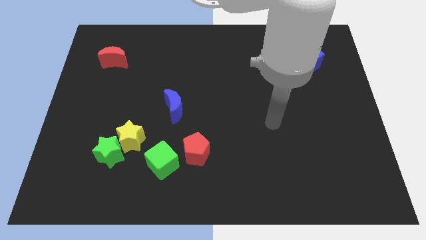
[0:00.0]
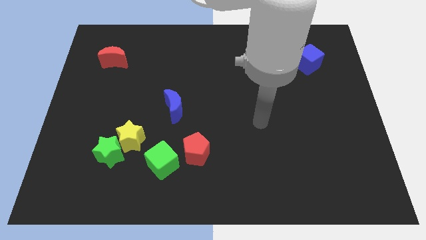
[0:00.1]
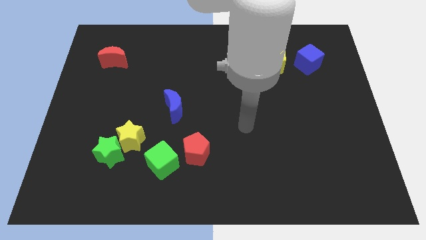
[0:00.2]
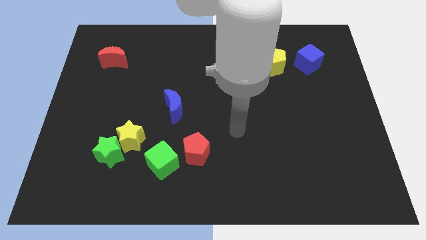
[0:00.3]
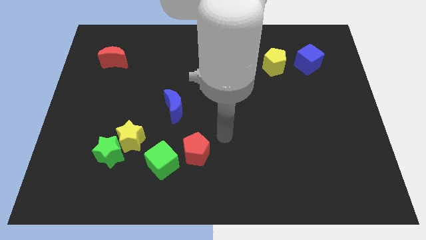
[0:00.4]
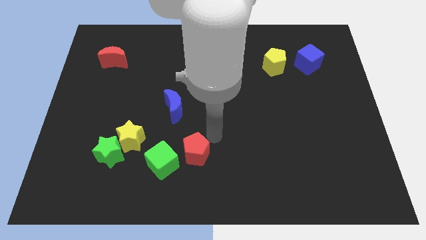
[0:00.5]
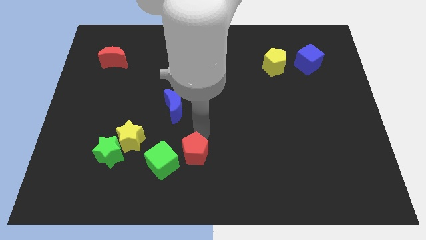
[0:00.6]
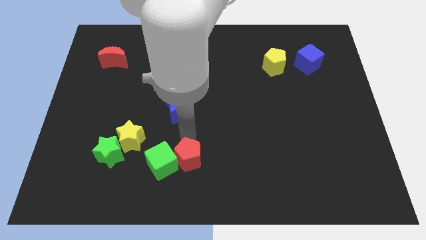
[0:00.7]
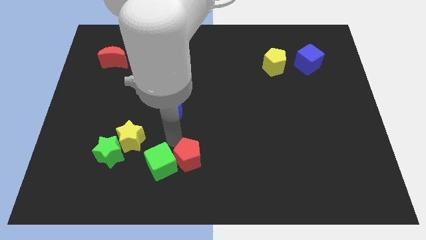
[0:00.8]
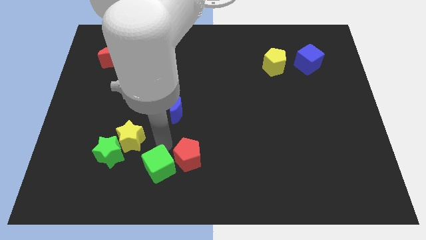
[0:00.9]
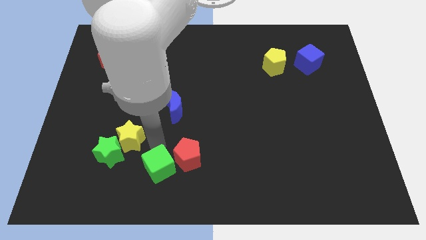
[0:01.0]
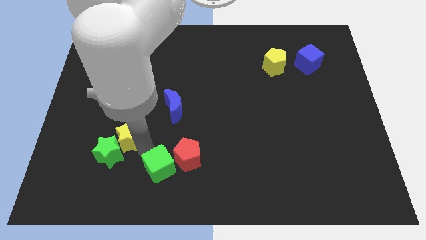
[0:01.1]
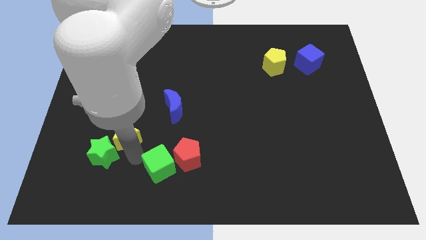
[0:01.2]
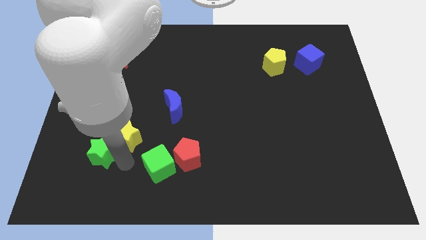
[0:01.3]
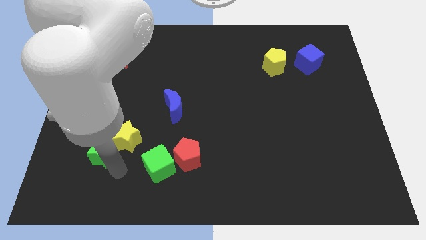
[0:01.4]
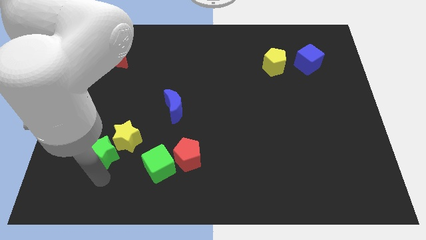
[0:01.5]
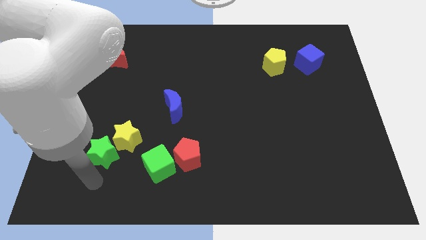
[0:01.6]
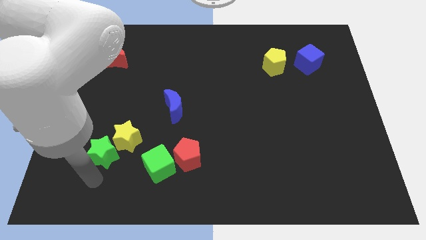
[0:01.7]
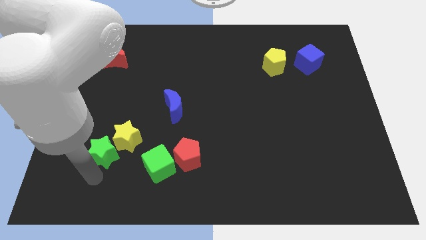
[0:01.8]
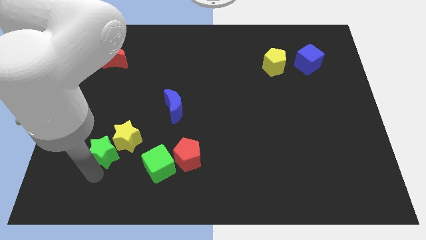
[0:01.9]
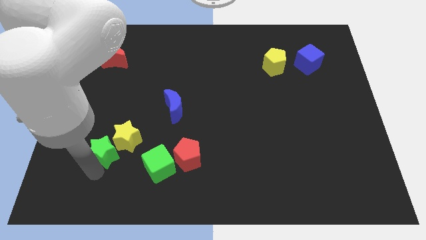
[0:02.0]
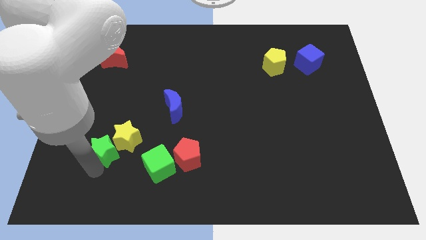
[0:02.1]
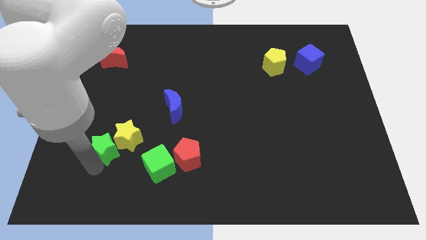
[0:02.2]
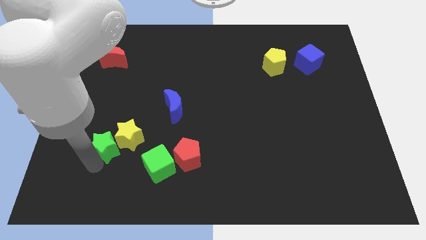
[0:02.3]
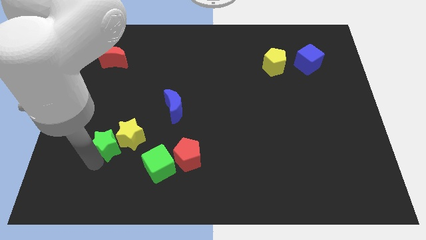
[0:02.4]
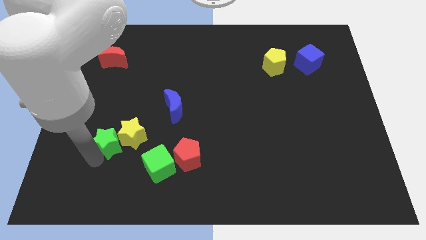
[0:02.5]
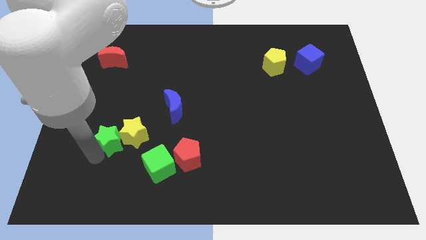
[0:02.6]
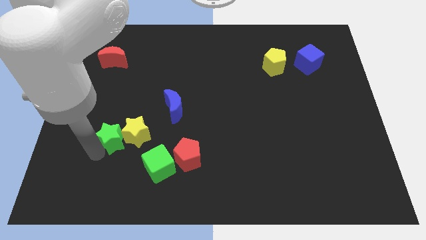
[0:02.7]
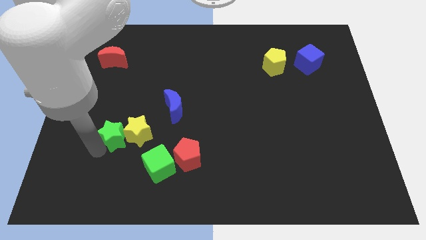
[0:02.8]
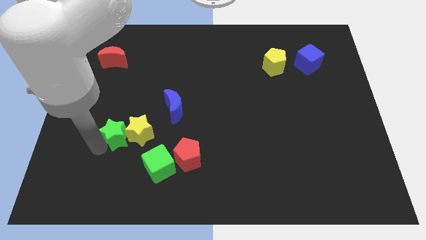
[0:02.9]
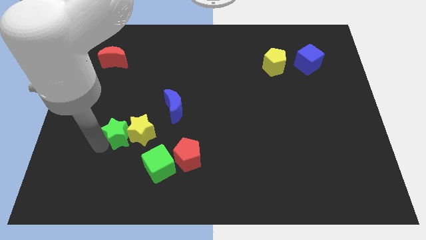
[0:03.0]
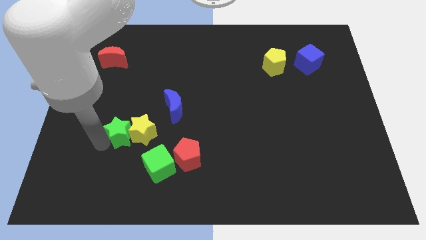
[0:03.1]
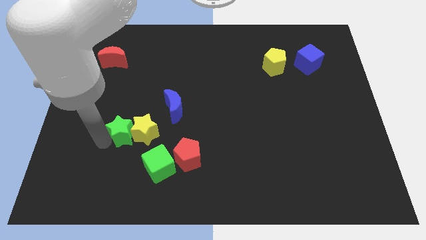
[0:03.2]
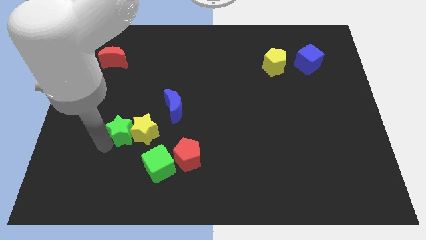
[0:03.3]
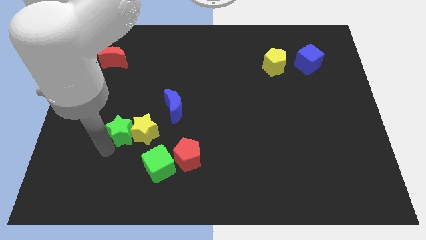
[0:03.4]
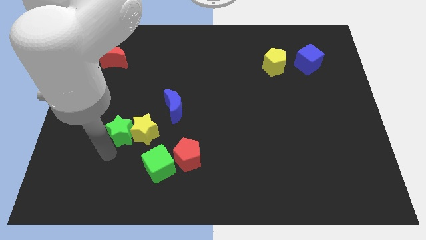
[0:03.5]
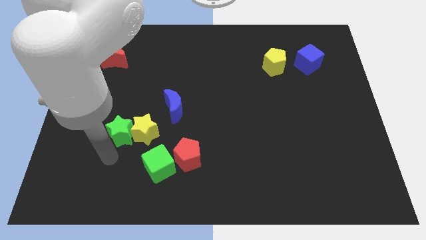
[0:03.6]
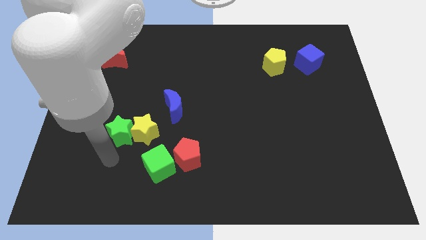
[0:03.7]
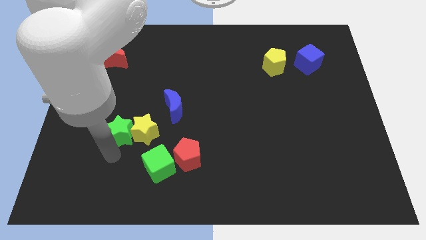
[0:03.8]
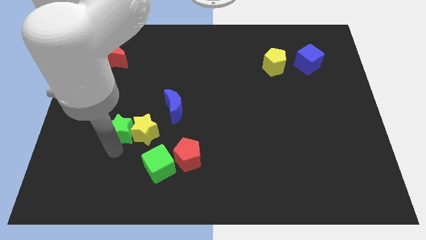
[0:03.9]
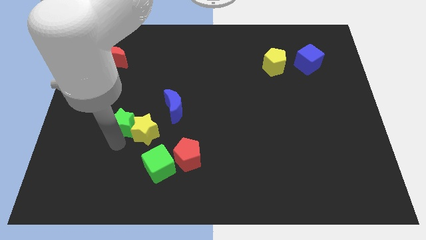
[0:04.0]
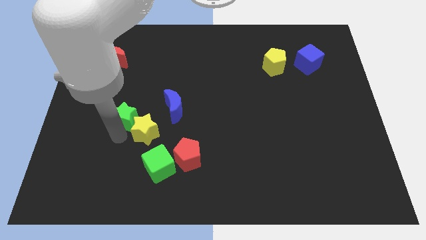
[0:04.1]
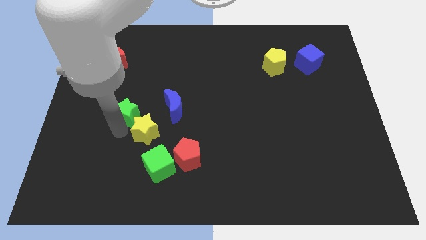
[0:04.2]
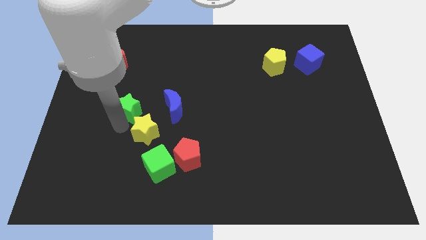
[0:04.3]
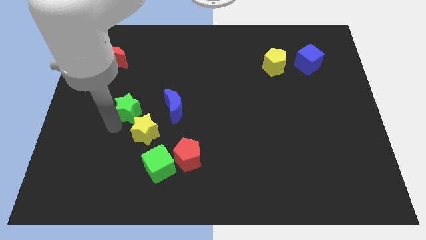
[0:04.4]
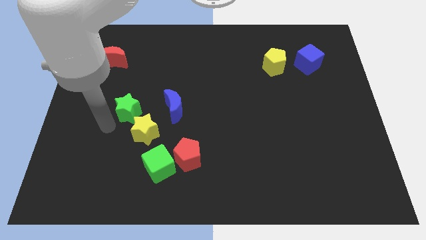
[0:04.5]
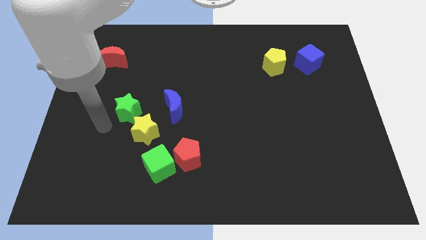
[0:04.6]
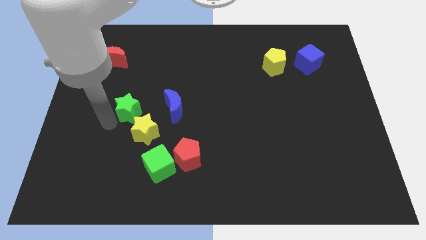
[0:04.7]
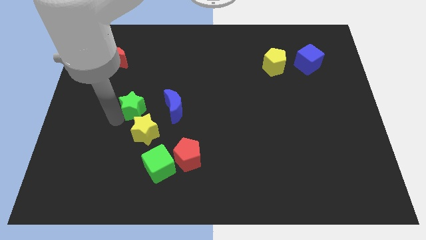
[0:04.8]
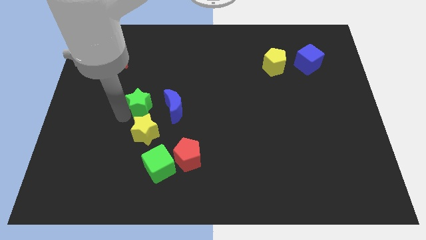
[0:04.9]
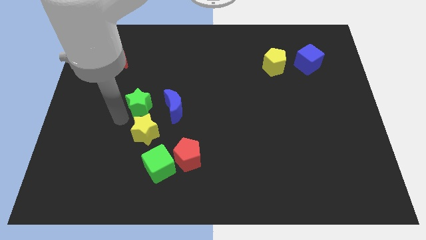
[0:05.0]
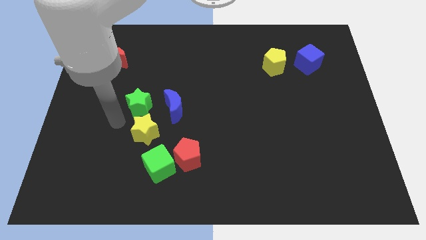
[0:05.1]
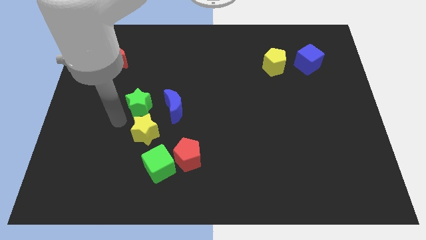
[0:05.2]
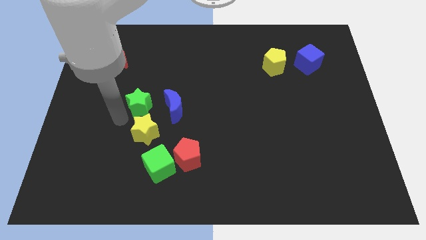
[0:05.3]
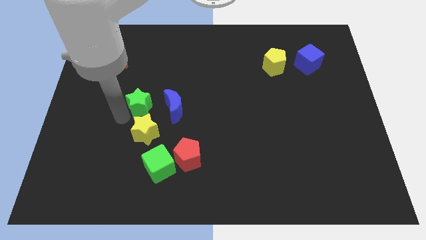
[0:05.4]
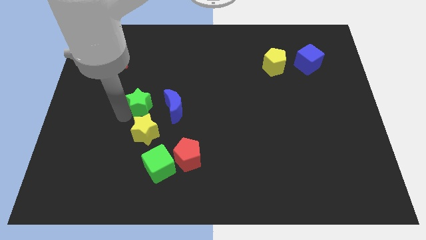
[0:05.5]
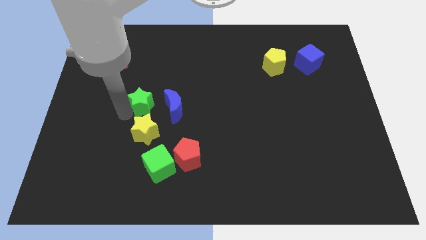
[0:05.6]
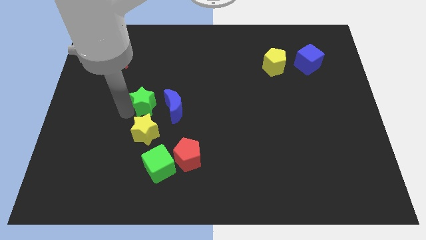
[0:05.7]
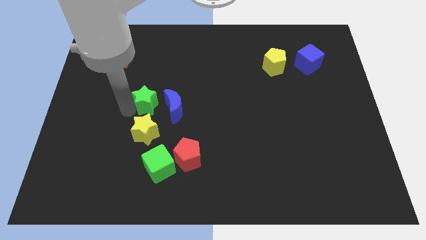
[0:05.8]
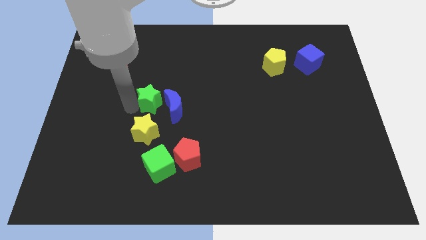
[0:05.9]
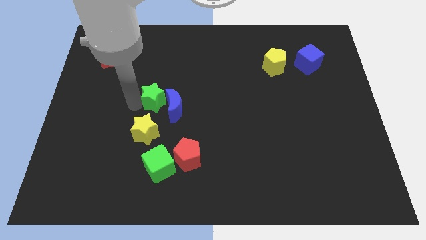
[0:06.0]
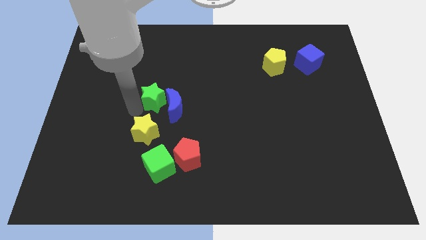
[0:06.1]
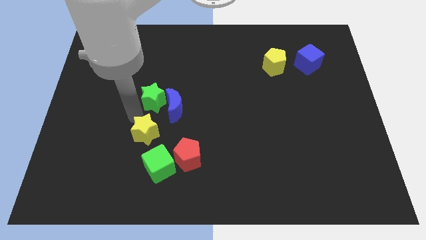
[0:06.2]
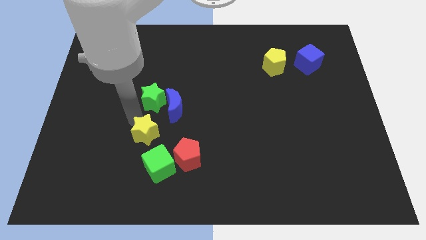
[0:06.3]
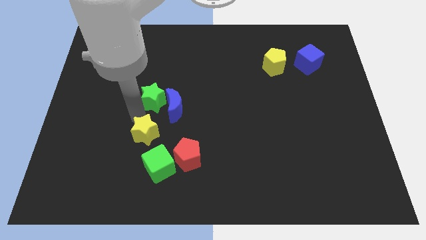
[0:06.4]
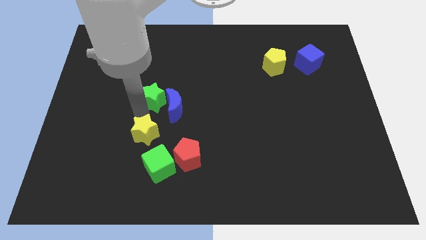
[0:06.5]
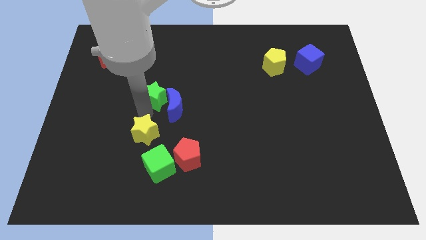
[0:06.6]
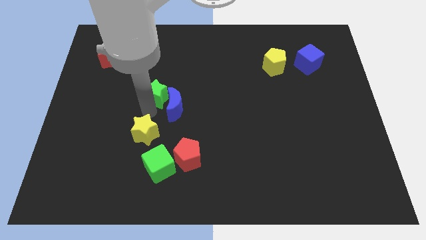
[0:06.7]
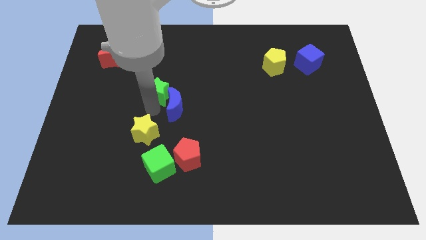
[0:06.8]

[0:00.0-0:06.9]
slide the green star to the top of the blue moon

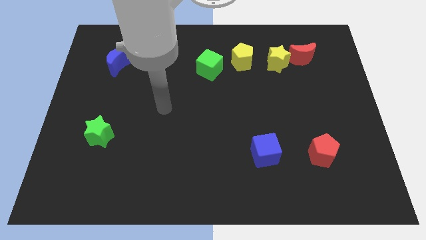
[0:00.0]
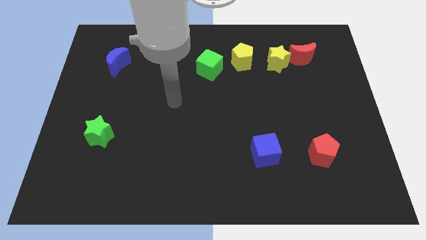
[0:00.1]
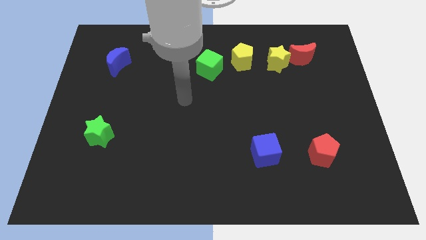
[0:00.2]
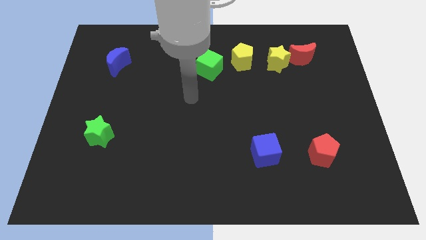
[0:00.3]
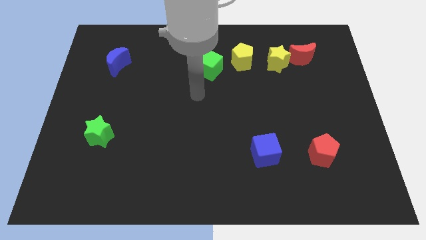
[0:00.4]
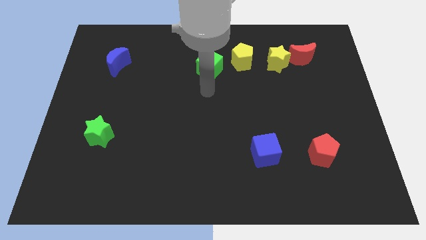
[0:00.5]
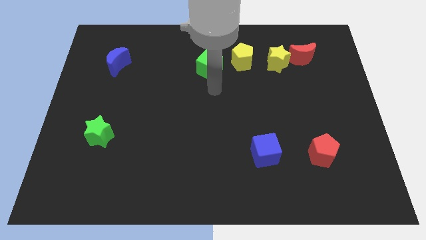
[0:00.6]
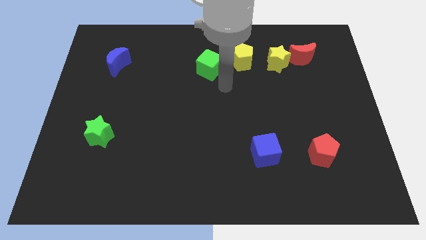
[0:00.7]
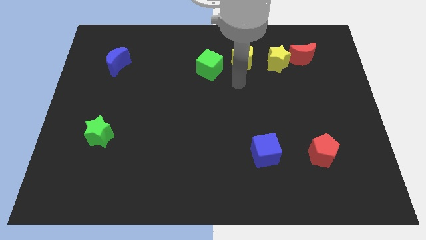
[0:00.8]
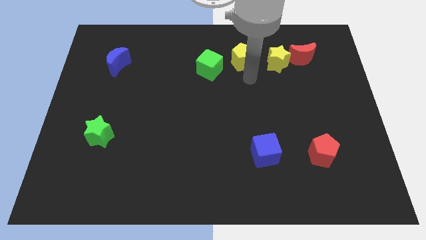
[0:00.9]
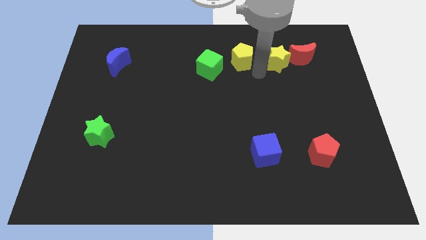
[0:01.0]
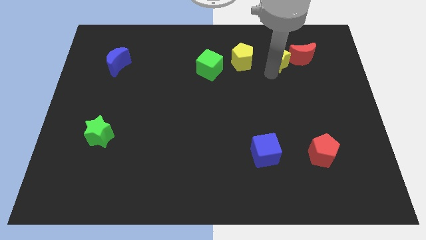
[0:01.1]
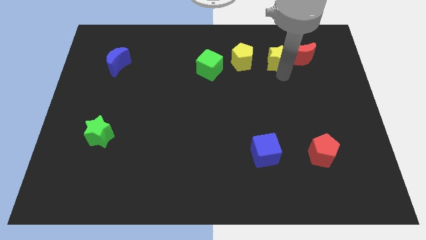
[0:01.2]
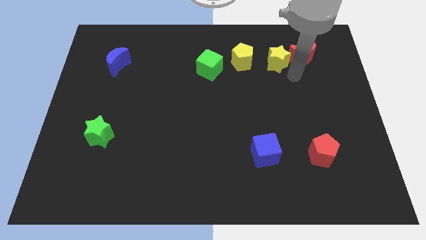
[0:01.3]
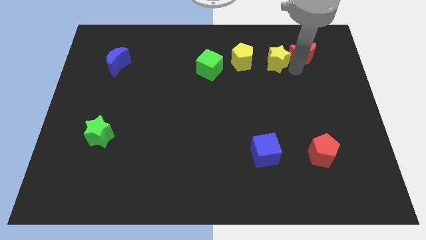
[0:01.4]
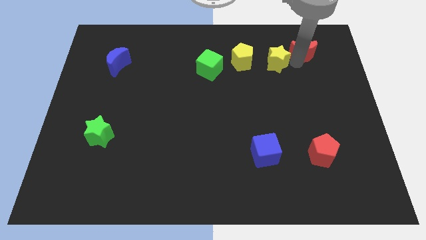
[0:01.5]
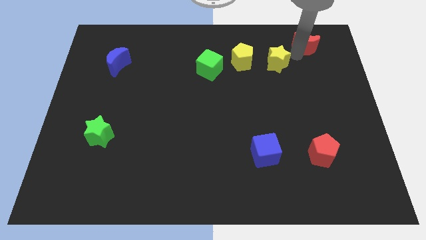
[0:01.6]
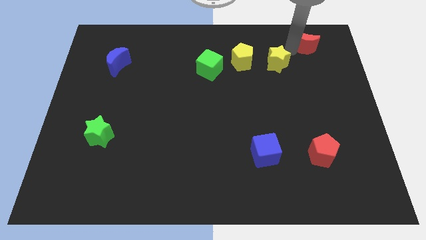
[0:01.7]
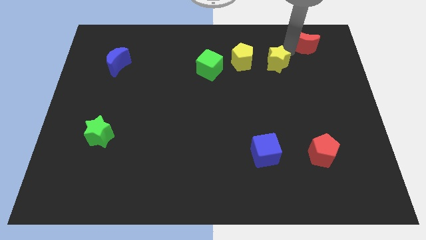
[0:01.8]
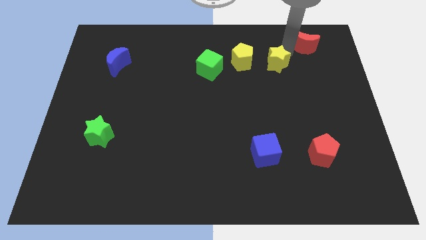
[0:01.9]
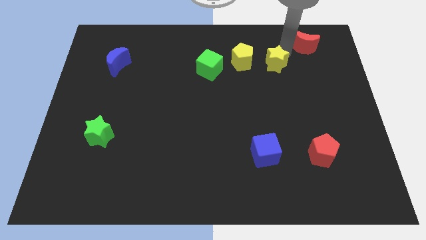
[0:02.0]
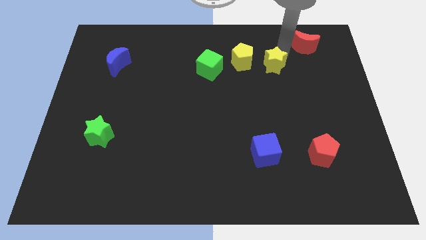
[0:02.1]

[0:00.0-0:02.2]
slide the yellow star to the bottom right side of the yellow pentagon
